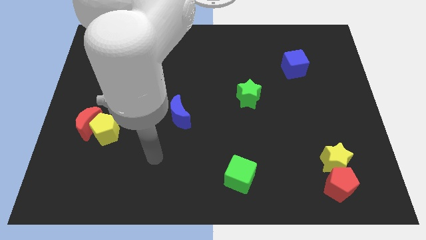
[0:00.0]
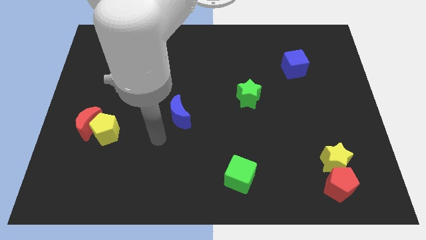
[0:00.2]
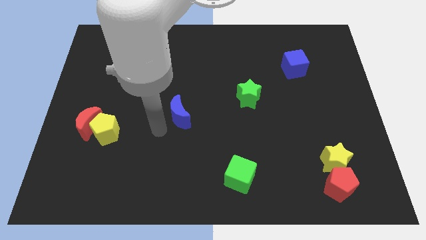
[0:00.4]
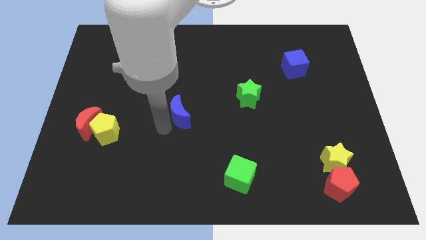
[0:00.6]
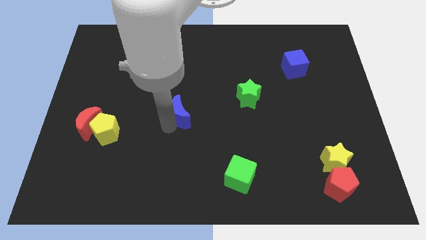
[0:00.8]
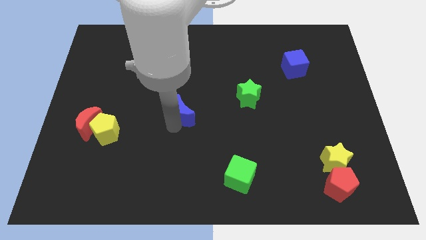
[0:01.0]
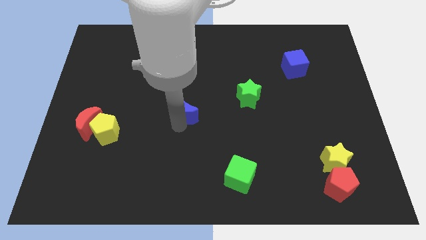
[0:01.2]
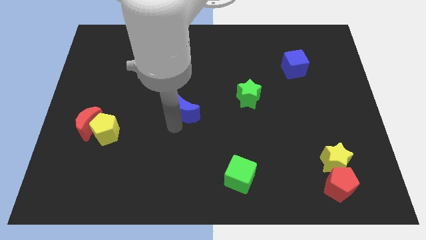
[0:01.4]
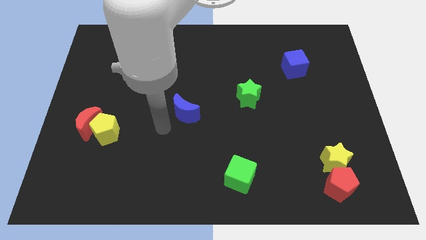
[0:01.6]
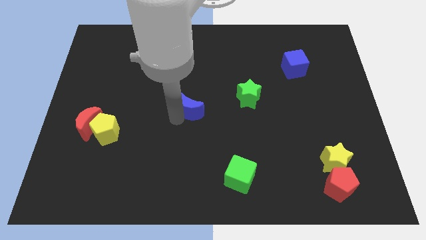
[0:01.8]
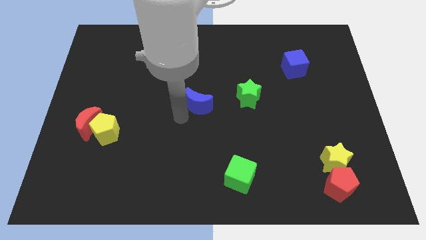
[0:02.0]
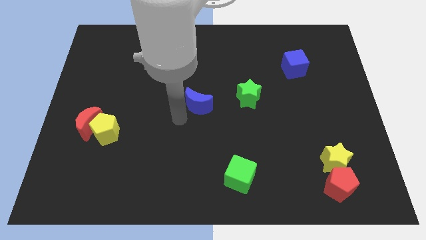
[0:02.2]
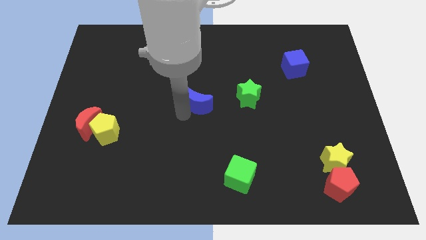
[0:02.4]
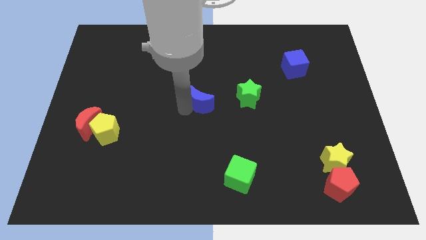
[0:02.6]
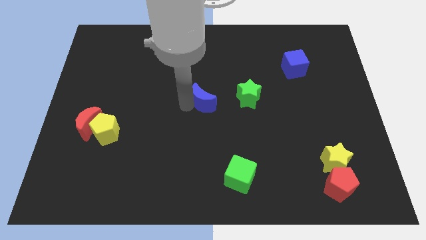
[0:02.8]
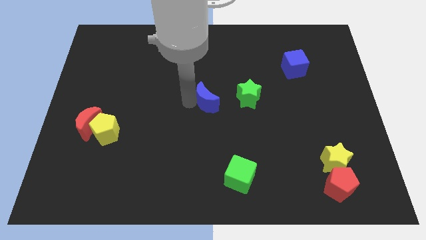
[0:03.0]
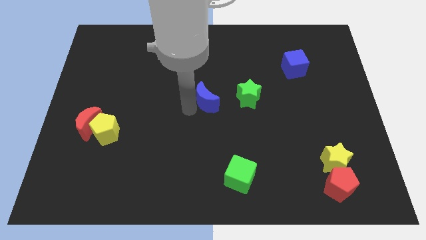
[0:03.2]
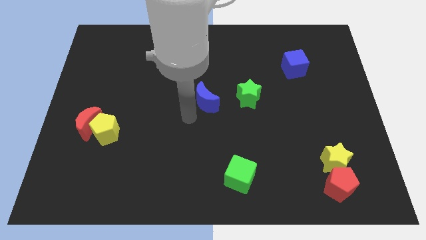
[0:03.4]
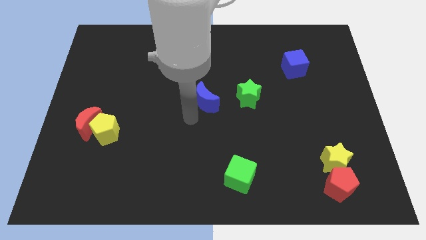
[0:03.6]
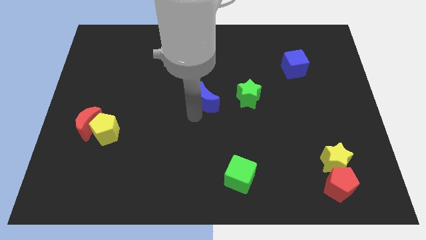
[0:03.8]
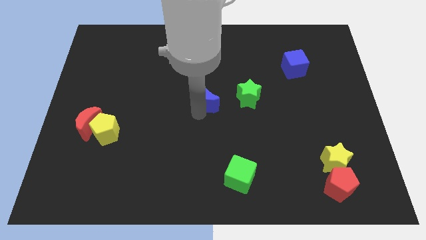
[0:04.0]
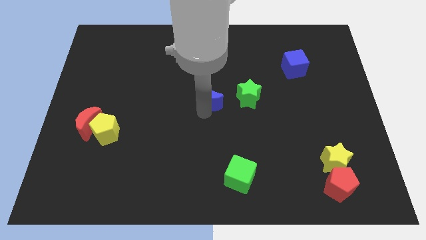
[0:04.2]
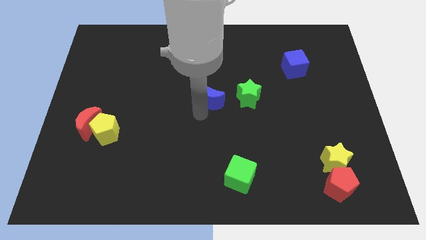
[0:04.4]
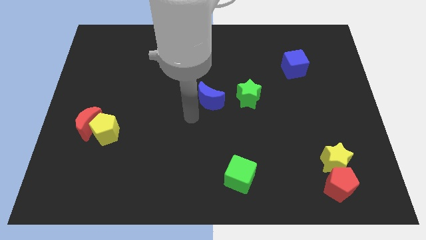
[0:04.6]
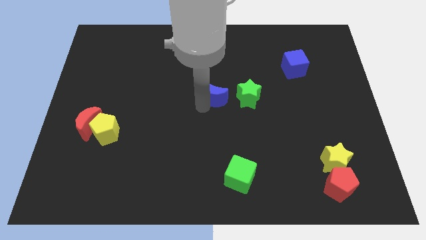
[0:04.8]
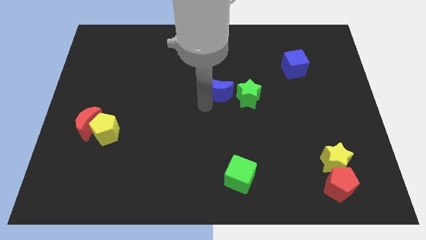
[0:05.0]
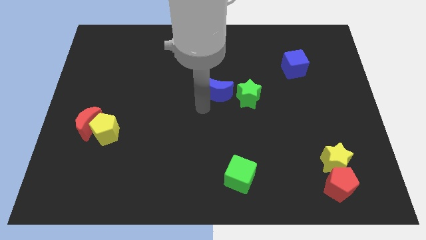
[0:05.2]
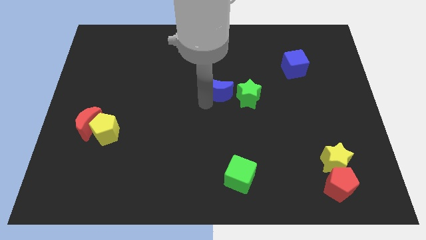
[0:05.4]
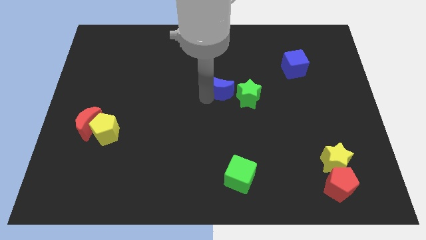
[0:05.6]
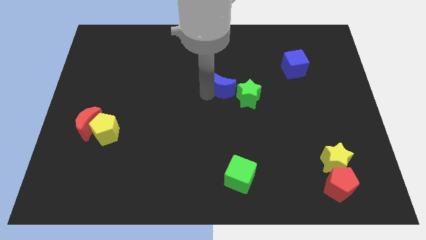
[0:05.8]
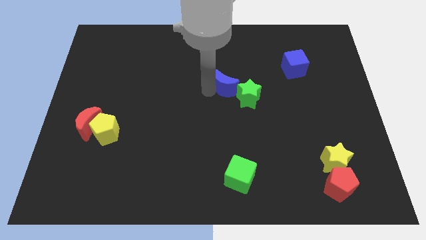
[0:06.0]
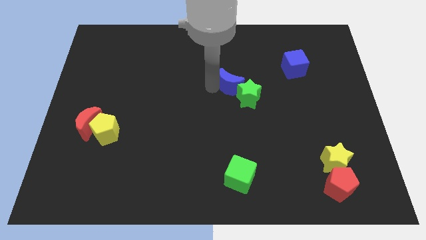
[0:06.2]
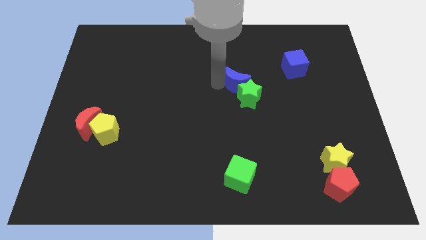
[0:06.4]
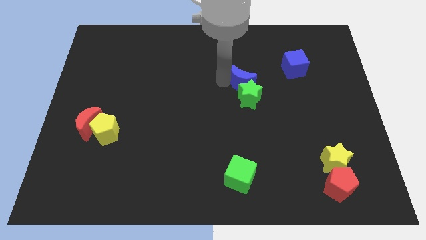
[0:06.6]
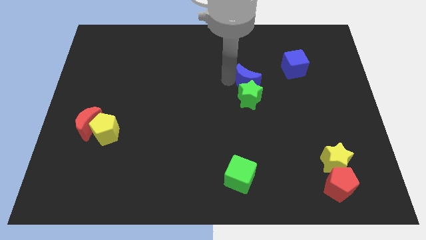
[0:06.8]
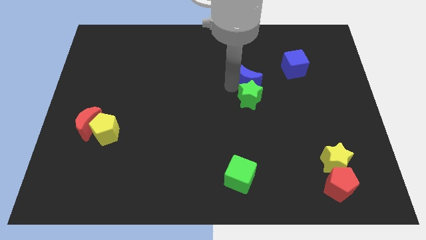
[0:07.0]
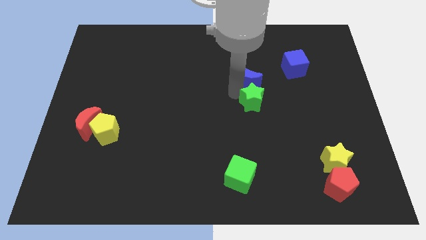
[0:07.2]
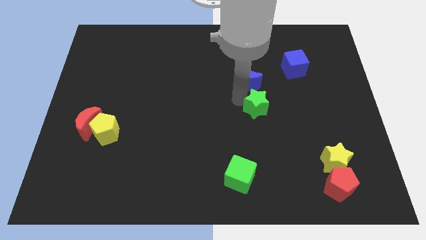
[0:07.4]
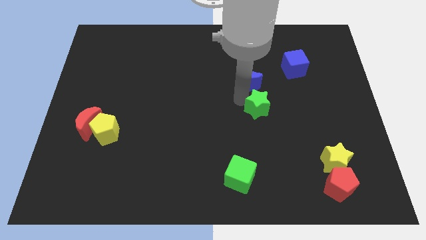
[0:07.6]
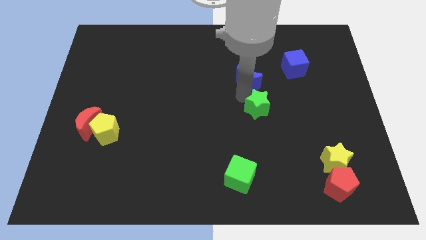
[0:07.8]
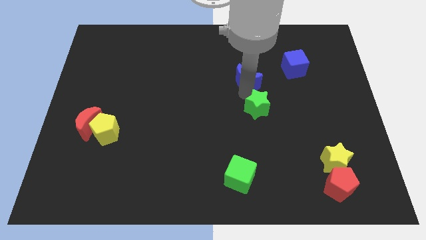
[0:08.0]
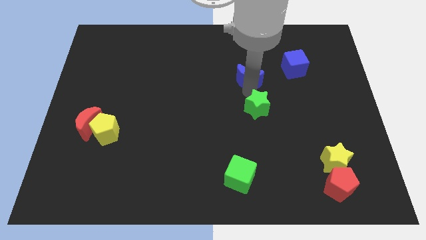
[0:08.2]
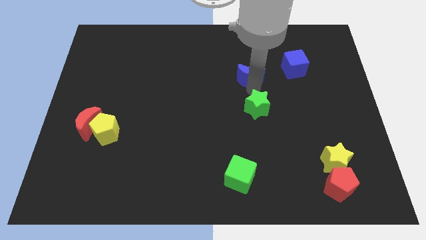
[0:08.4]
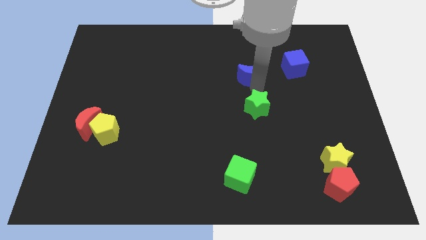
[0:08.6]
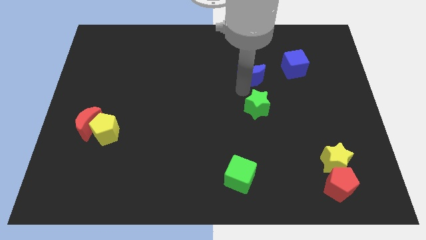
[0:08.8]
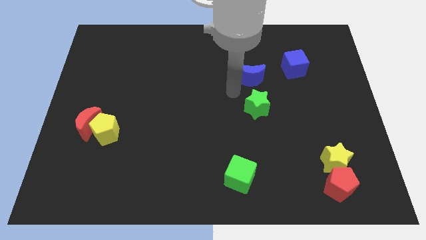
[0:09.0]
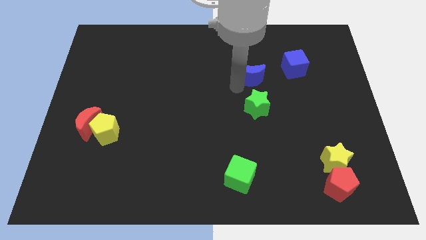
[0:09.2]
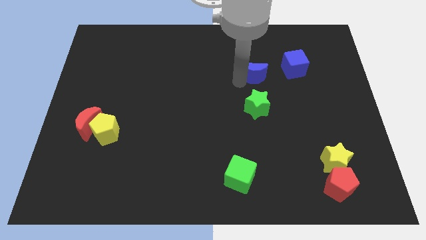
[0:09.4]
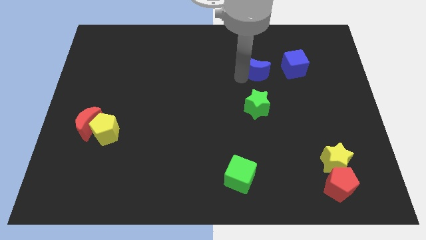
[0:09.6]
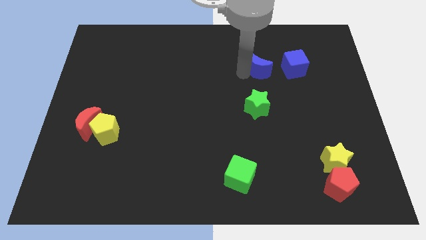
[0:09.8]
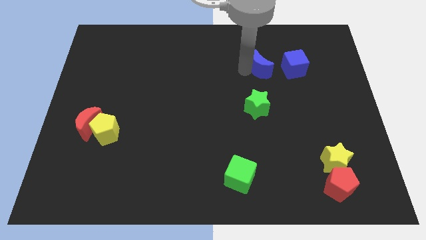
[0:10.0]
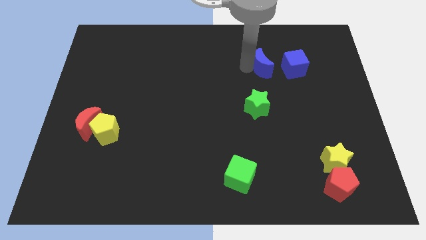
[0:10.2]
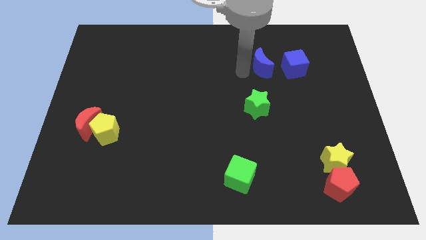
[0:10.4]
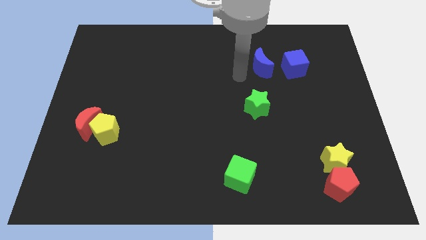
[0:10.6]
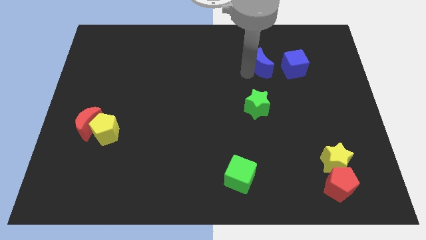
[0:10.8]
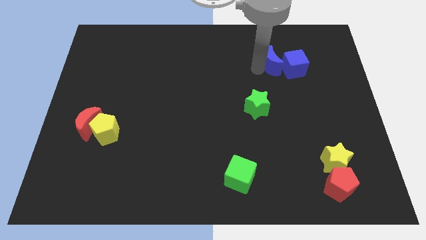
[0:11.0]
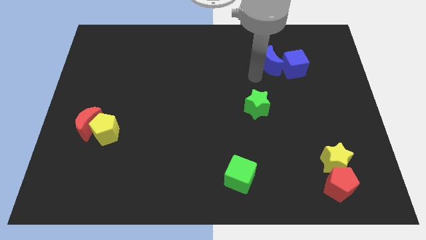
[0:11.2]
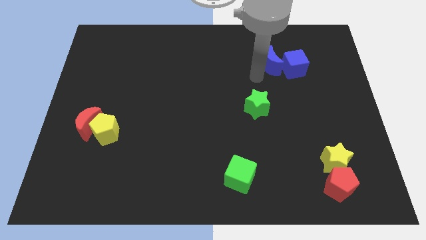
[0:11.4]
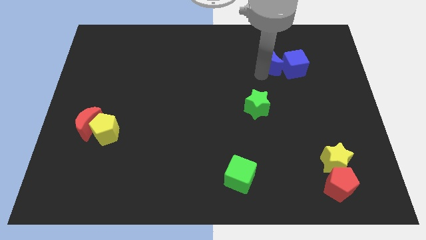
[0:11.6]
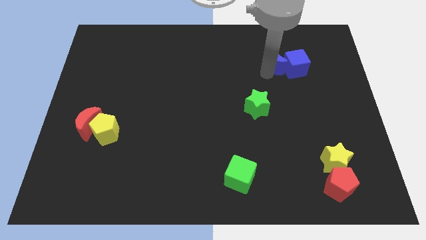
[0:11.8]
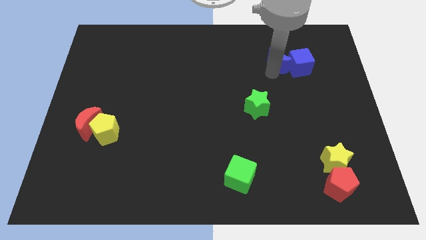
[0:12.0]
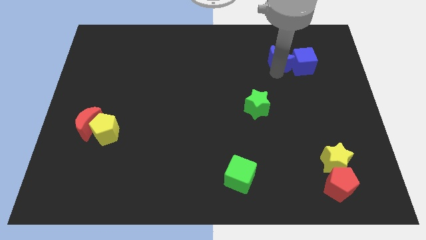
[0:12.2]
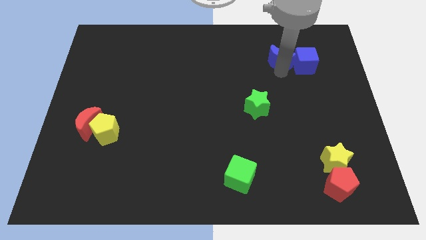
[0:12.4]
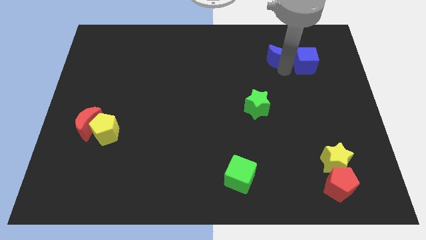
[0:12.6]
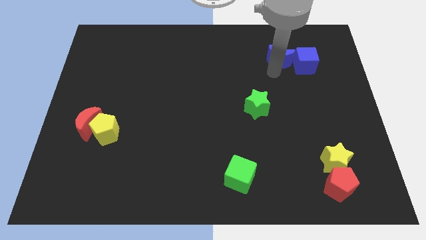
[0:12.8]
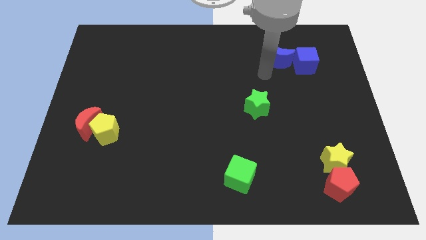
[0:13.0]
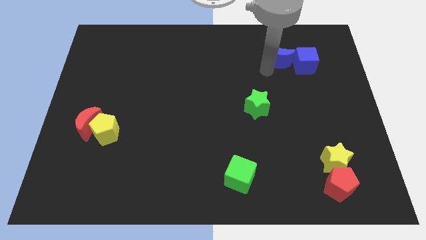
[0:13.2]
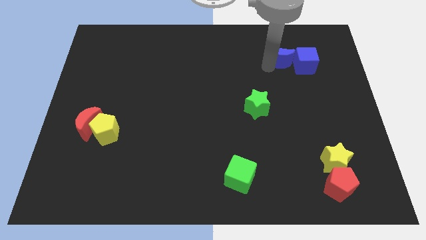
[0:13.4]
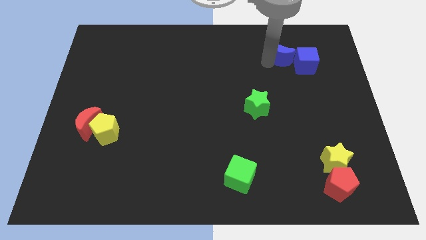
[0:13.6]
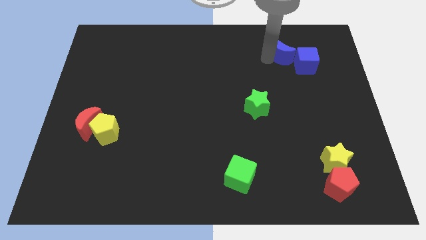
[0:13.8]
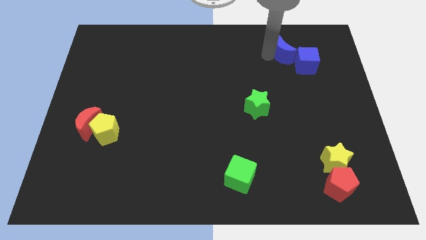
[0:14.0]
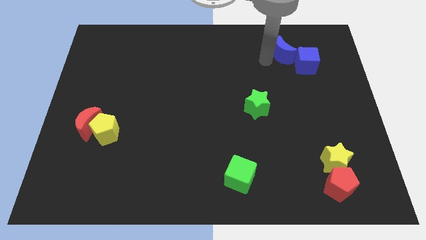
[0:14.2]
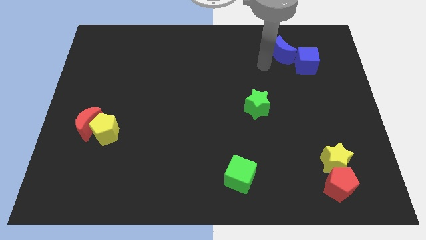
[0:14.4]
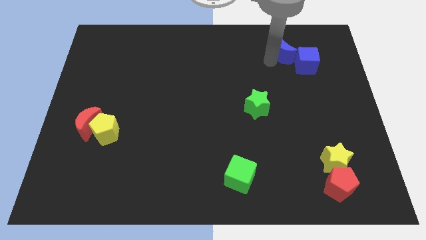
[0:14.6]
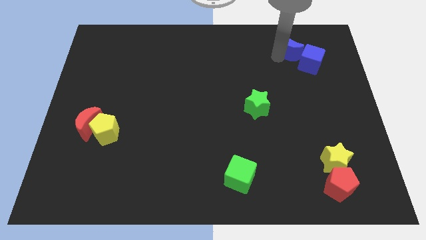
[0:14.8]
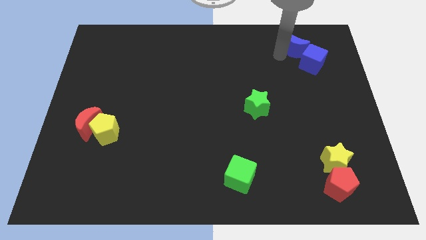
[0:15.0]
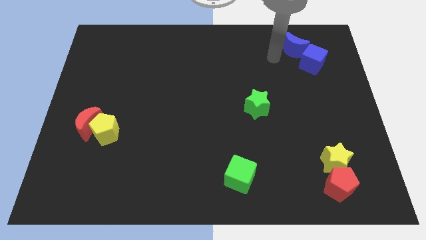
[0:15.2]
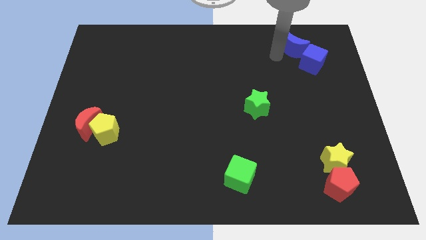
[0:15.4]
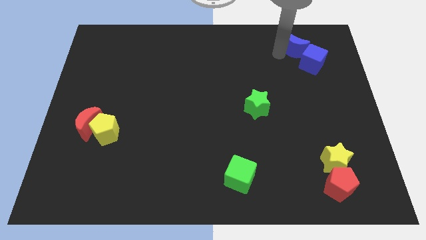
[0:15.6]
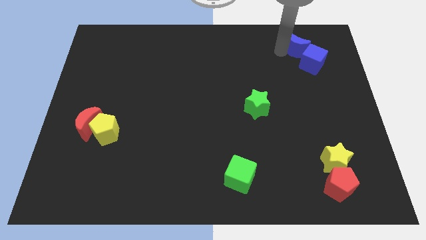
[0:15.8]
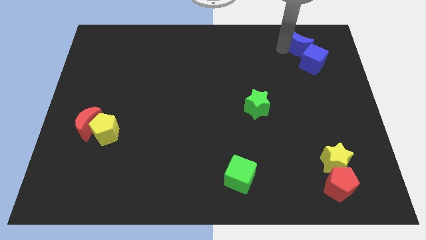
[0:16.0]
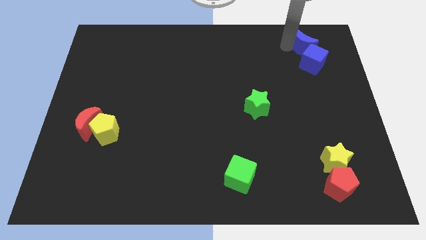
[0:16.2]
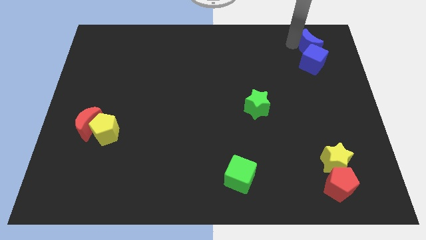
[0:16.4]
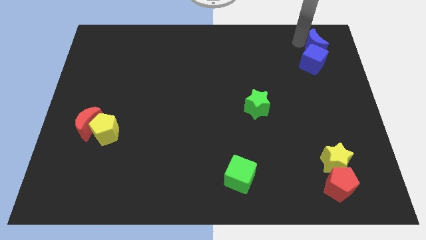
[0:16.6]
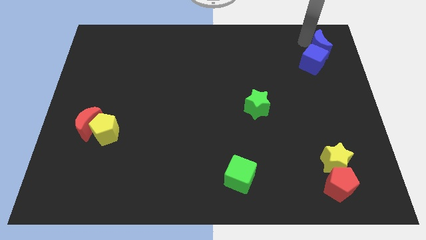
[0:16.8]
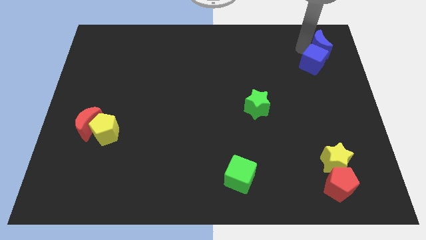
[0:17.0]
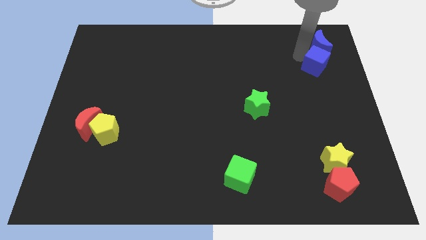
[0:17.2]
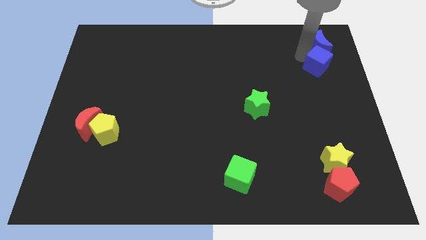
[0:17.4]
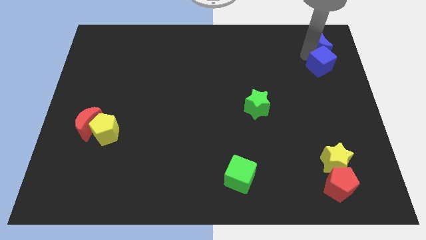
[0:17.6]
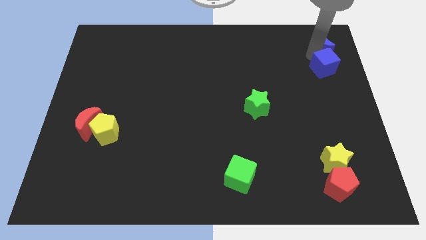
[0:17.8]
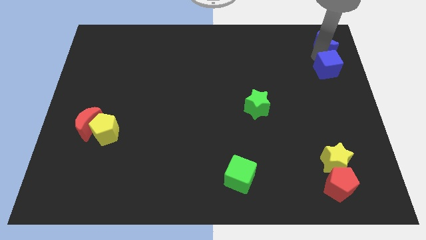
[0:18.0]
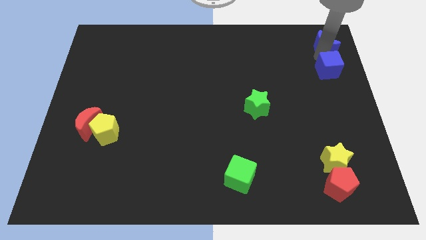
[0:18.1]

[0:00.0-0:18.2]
push the blue moon to the top right corner
